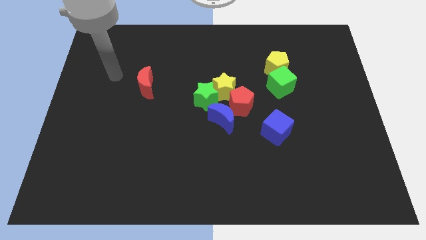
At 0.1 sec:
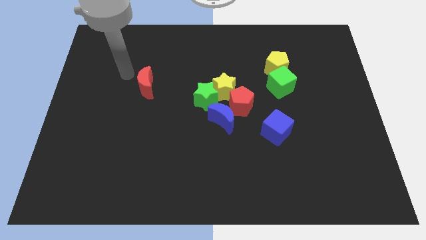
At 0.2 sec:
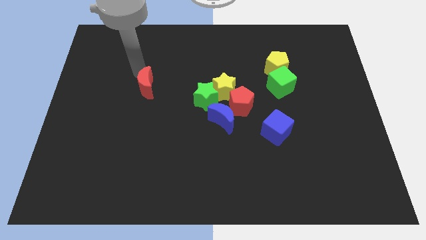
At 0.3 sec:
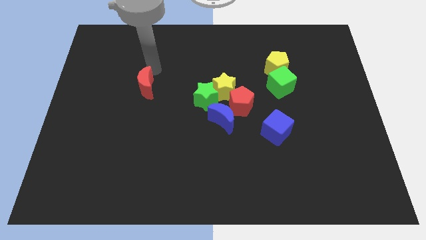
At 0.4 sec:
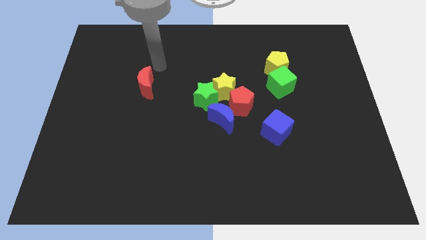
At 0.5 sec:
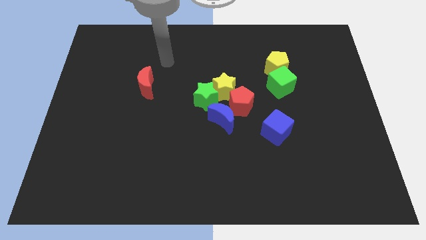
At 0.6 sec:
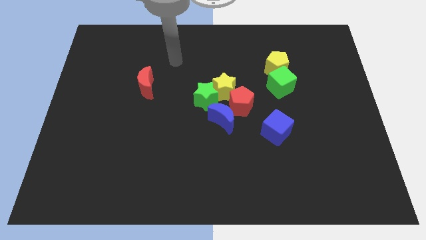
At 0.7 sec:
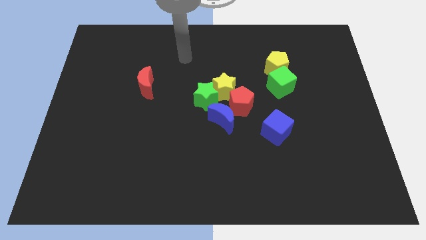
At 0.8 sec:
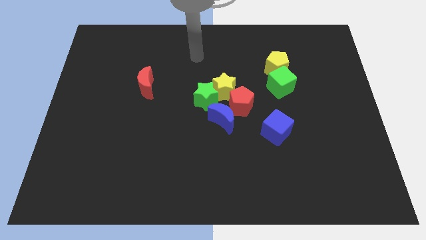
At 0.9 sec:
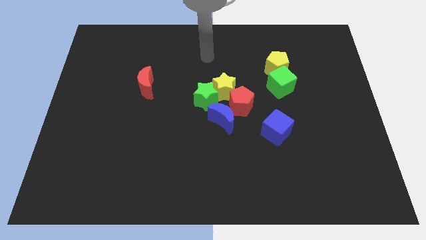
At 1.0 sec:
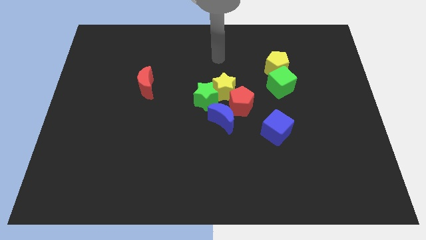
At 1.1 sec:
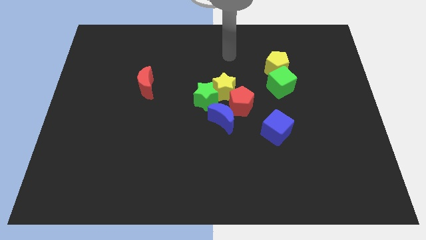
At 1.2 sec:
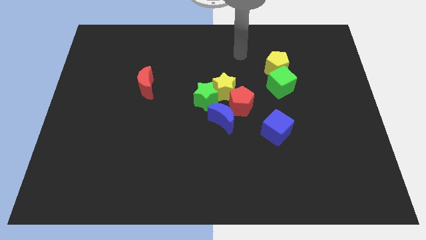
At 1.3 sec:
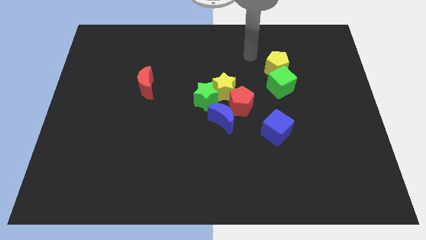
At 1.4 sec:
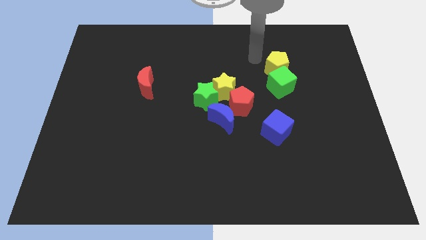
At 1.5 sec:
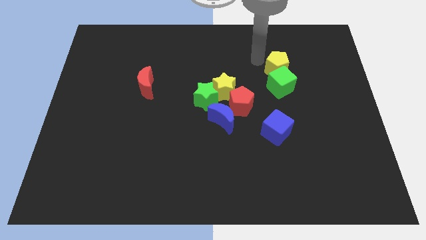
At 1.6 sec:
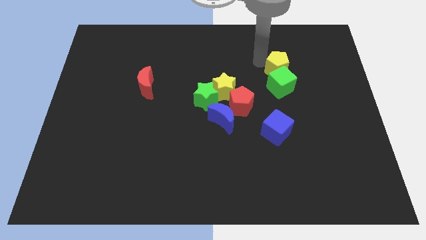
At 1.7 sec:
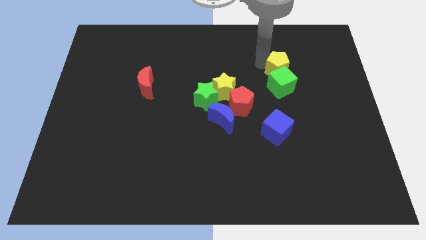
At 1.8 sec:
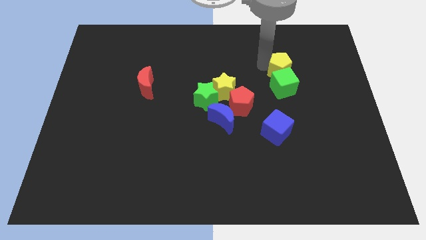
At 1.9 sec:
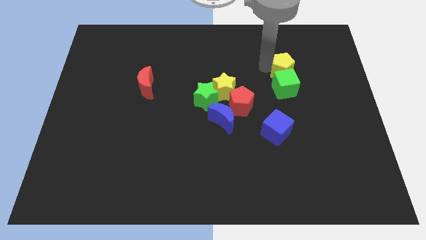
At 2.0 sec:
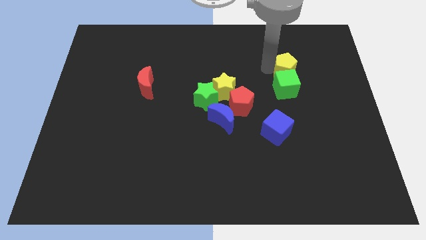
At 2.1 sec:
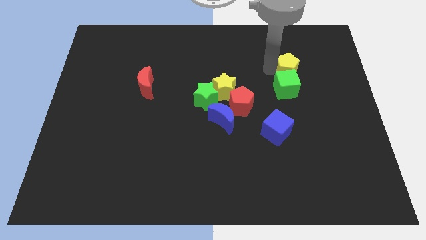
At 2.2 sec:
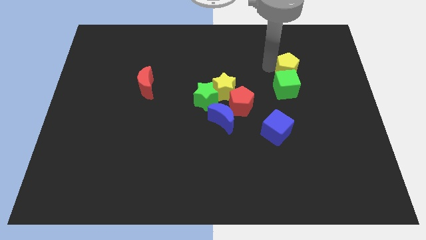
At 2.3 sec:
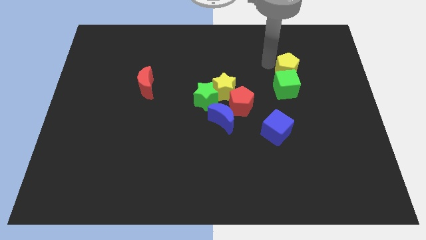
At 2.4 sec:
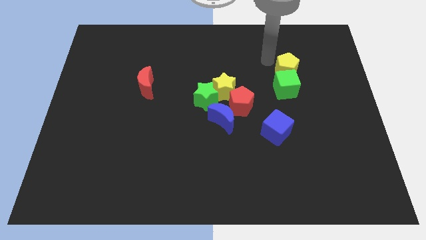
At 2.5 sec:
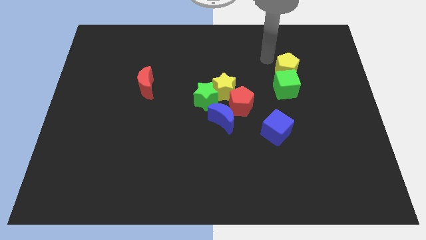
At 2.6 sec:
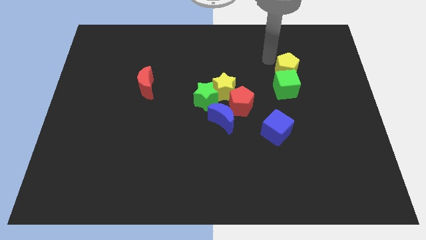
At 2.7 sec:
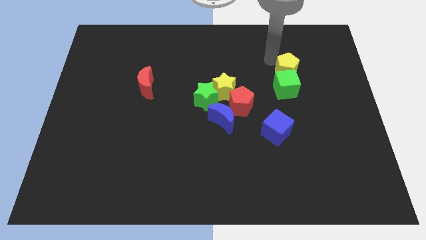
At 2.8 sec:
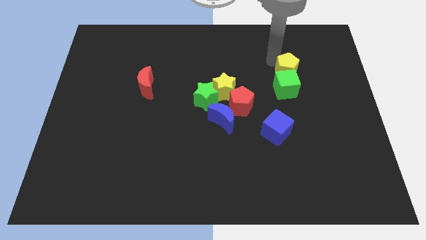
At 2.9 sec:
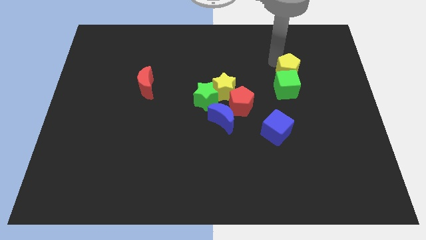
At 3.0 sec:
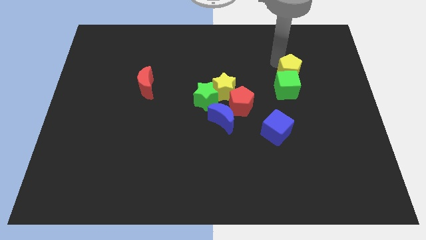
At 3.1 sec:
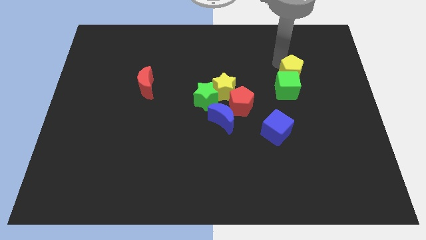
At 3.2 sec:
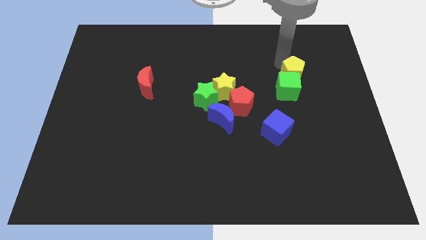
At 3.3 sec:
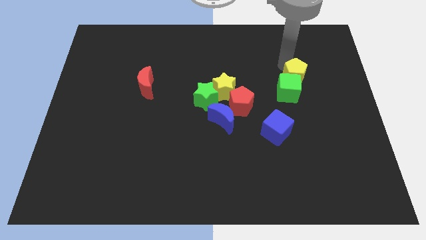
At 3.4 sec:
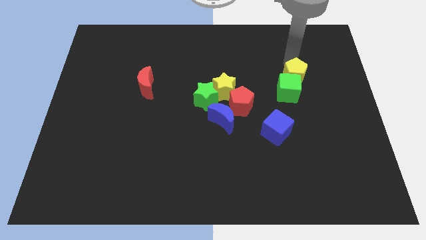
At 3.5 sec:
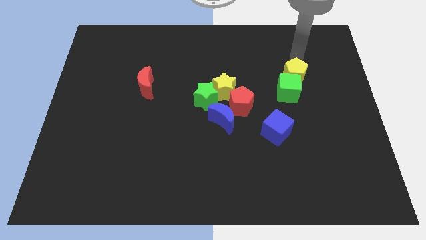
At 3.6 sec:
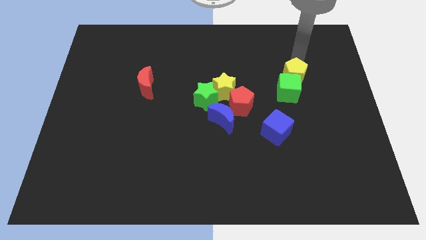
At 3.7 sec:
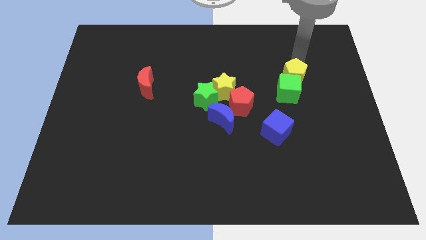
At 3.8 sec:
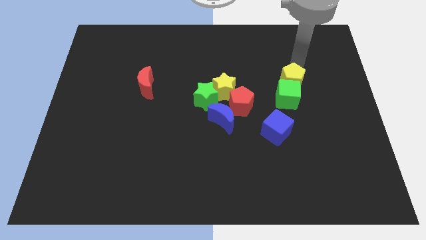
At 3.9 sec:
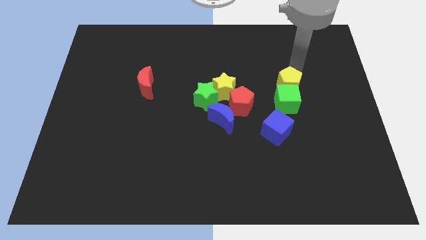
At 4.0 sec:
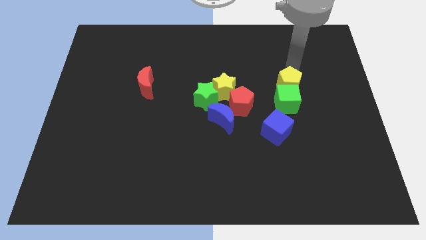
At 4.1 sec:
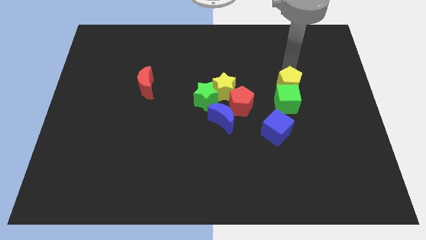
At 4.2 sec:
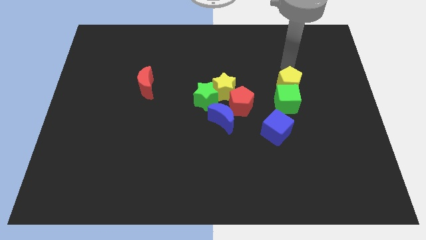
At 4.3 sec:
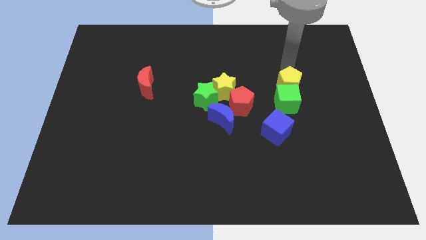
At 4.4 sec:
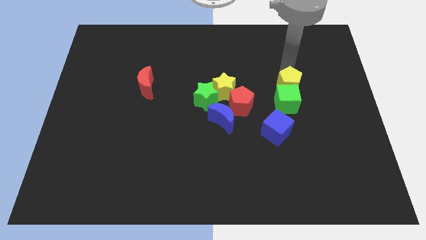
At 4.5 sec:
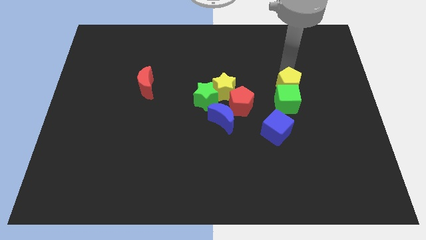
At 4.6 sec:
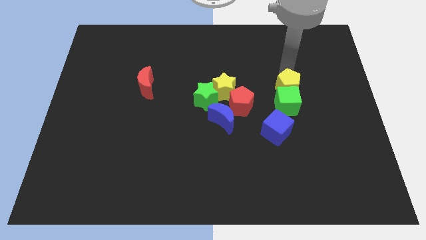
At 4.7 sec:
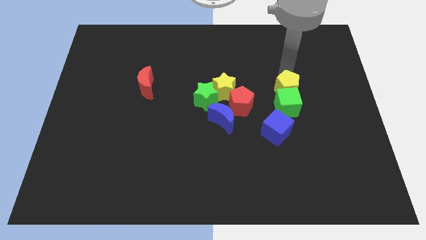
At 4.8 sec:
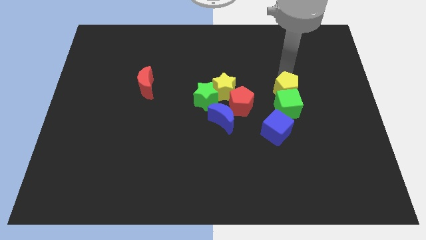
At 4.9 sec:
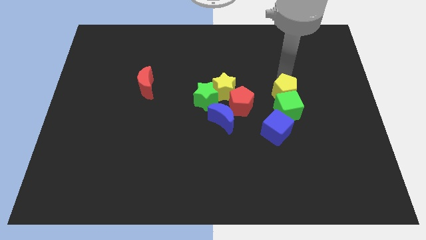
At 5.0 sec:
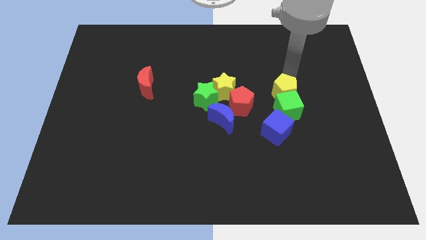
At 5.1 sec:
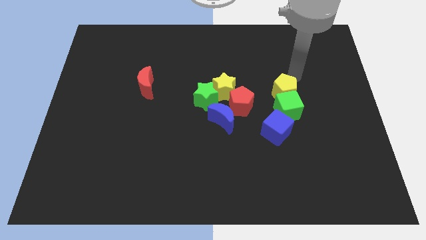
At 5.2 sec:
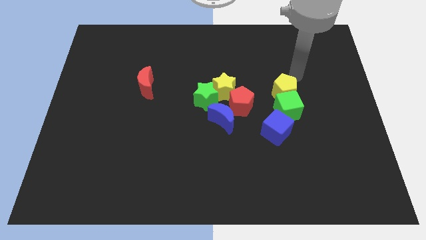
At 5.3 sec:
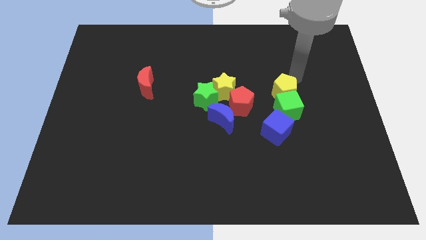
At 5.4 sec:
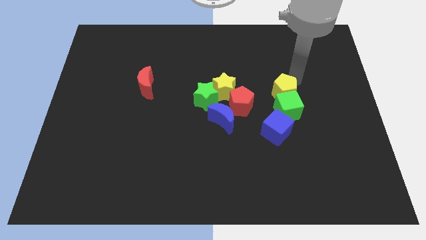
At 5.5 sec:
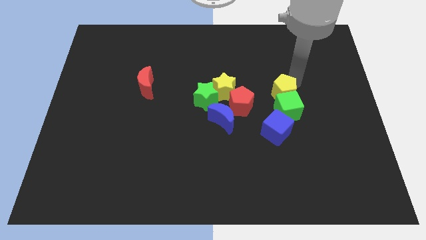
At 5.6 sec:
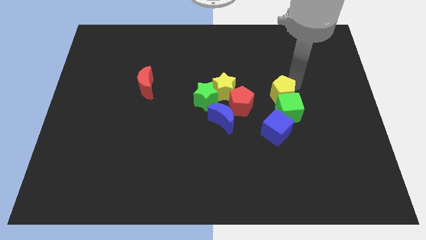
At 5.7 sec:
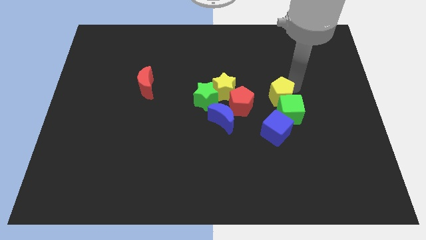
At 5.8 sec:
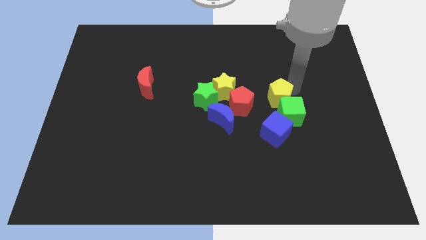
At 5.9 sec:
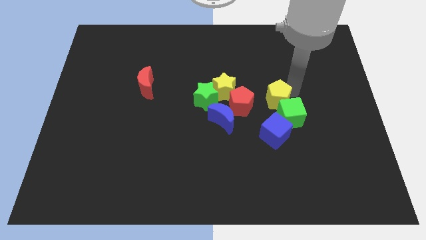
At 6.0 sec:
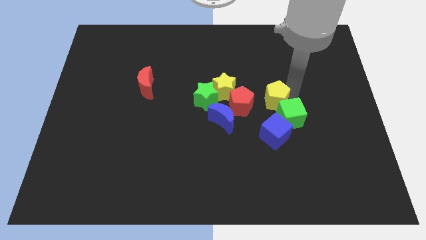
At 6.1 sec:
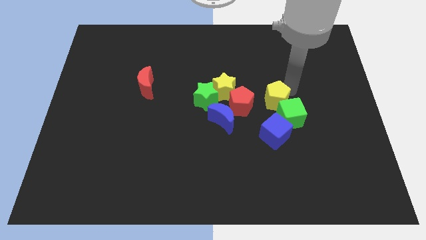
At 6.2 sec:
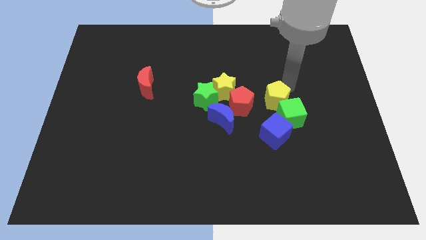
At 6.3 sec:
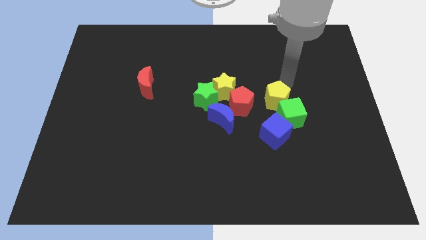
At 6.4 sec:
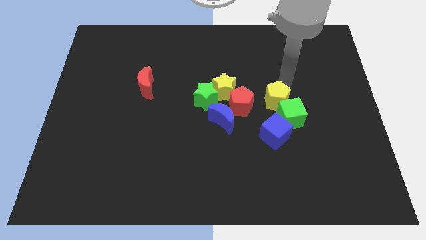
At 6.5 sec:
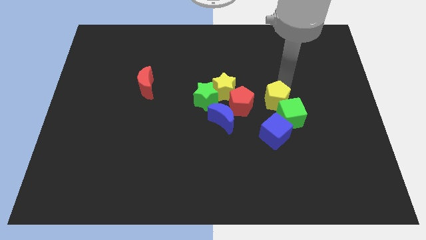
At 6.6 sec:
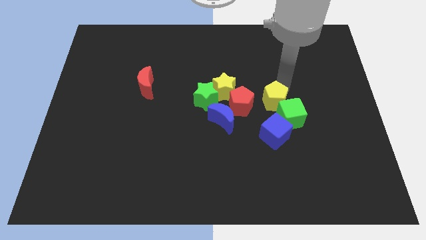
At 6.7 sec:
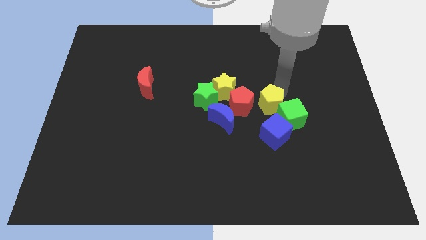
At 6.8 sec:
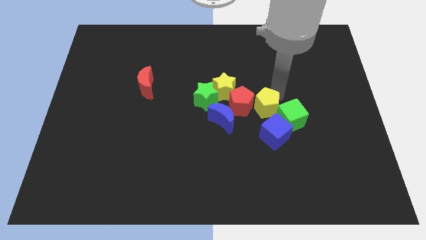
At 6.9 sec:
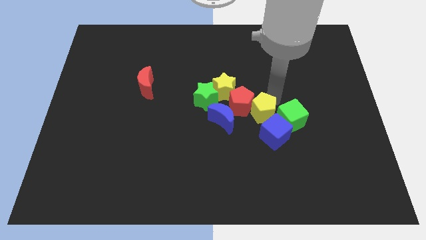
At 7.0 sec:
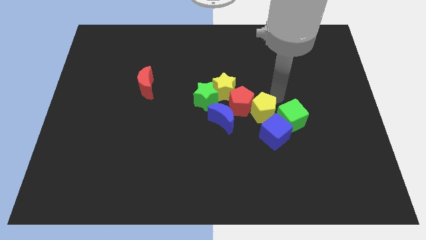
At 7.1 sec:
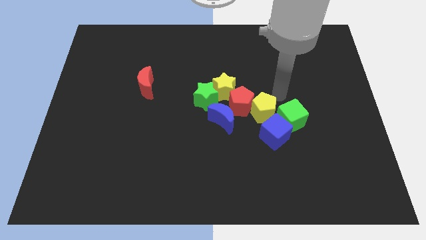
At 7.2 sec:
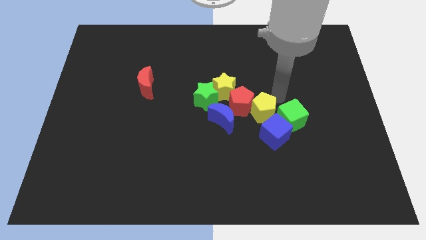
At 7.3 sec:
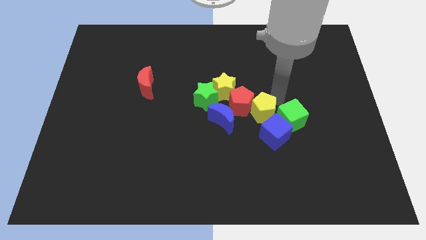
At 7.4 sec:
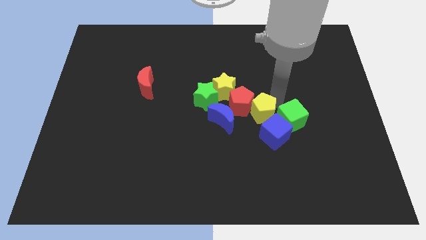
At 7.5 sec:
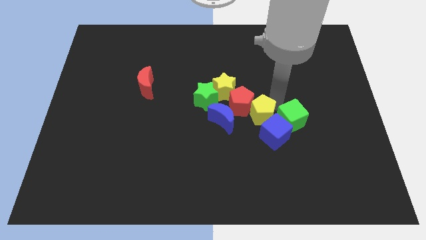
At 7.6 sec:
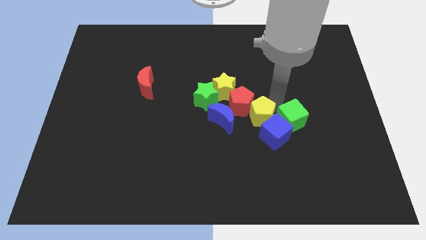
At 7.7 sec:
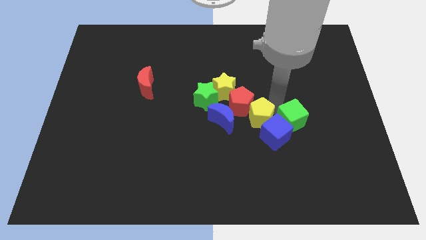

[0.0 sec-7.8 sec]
push the yellow pentagon to the bottom of the red pentagon
